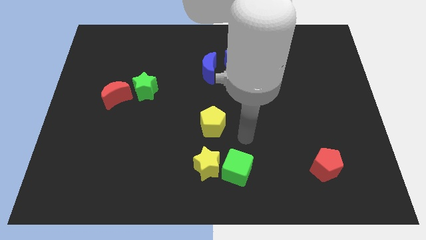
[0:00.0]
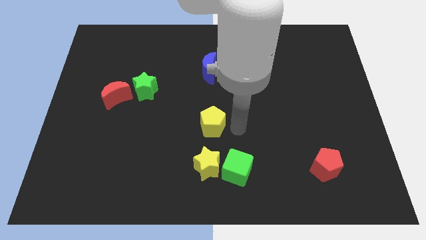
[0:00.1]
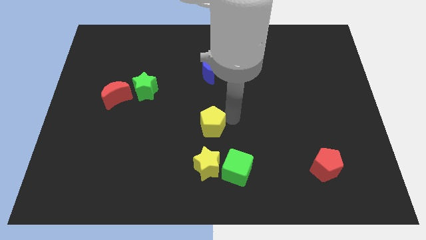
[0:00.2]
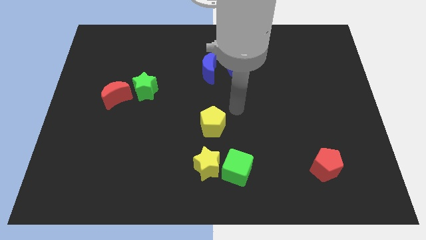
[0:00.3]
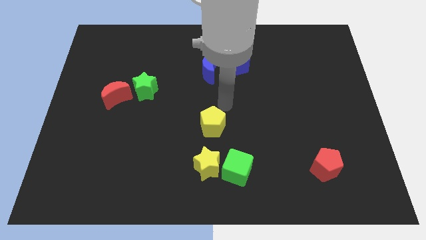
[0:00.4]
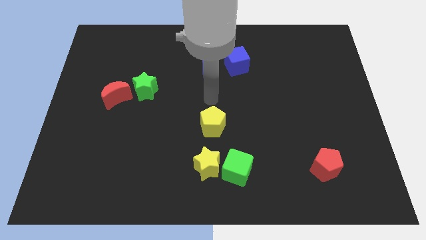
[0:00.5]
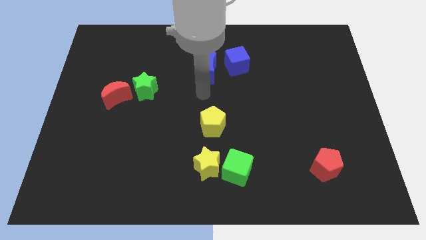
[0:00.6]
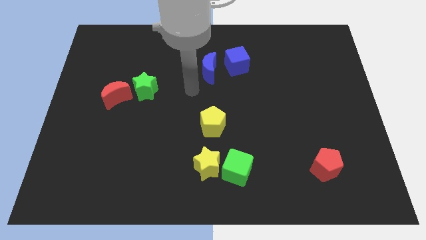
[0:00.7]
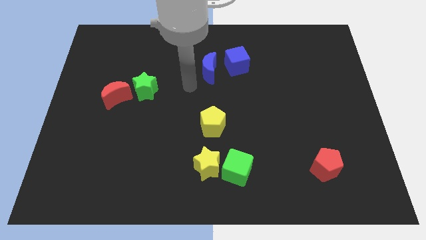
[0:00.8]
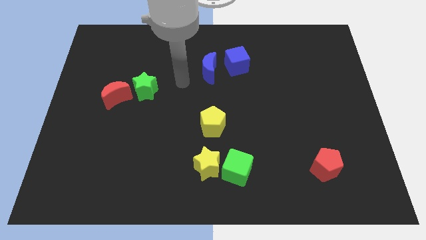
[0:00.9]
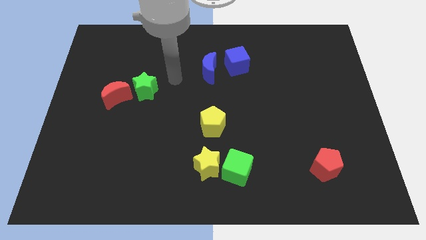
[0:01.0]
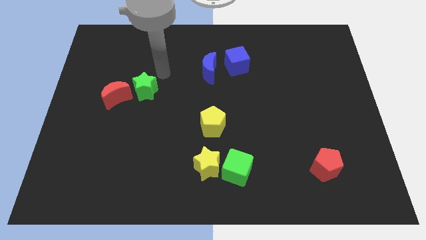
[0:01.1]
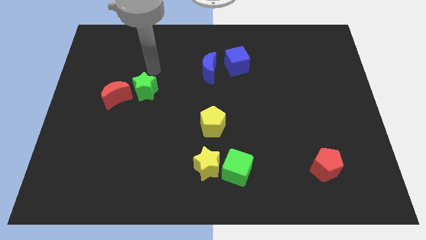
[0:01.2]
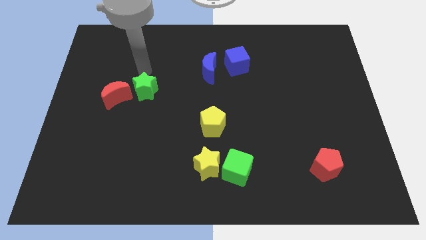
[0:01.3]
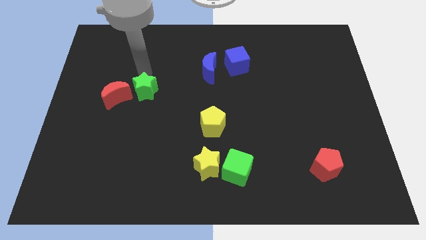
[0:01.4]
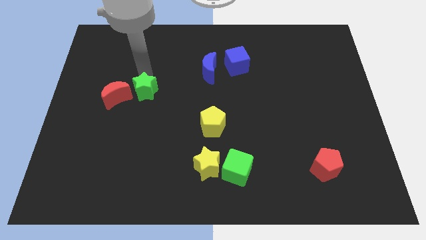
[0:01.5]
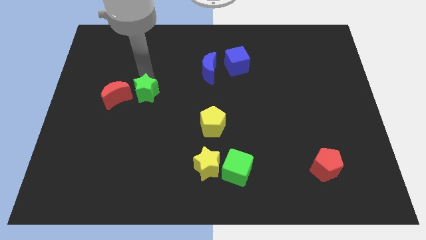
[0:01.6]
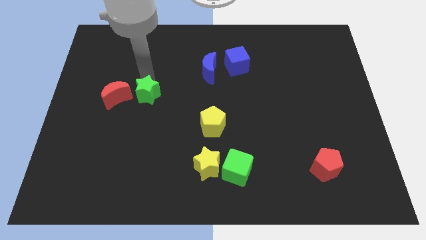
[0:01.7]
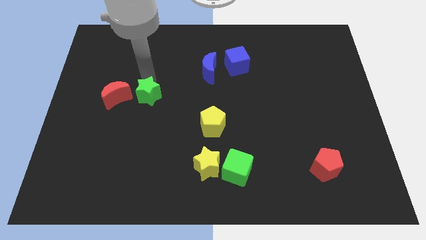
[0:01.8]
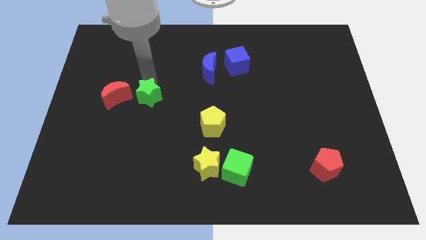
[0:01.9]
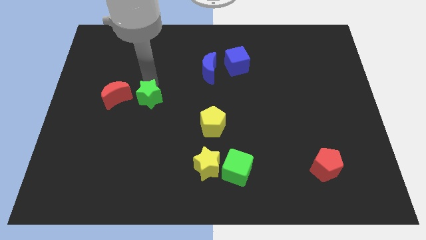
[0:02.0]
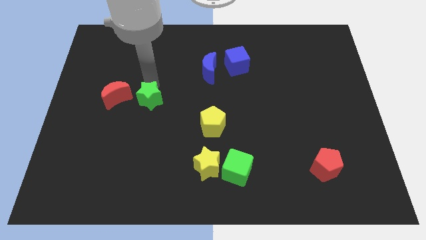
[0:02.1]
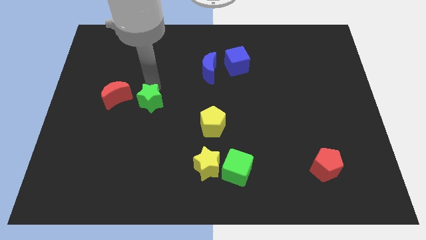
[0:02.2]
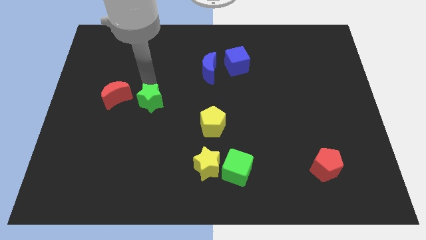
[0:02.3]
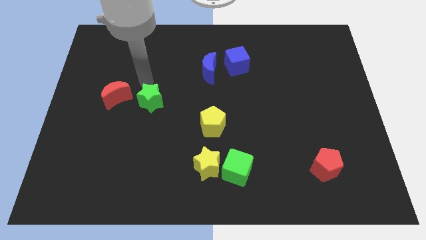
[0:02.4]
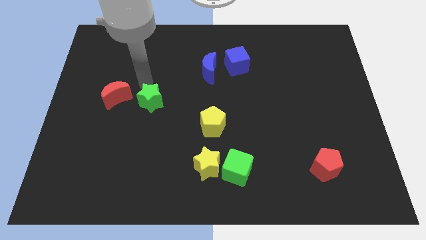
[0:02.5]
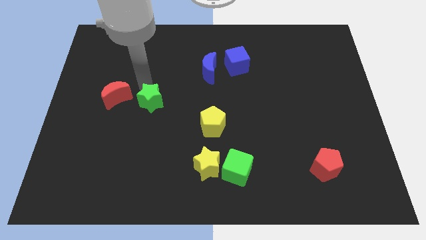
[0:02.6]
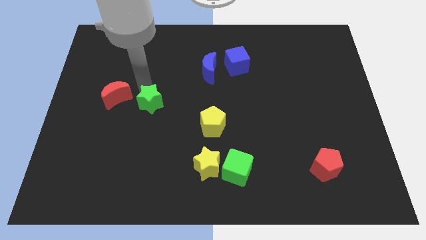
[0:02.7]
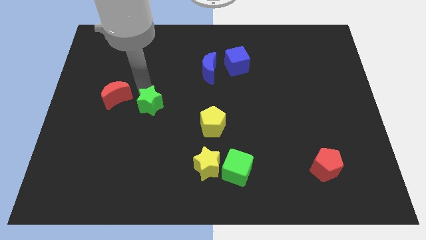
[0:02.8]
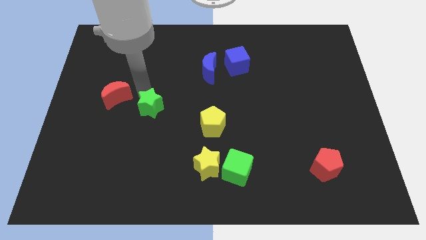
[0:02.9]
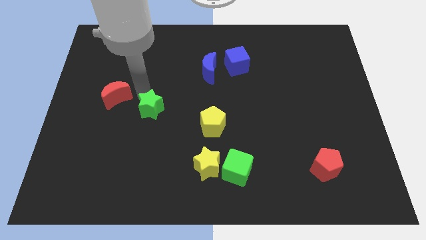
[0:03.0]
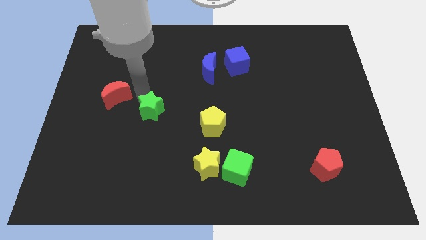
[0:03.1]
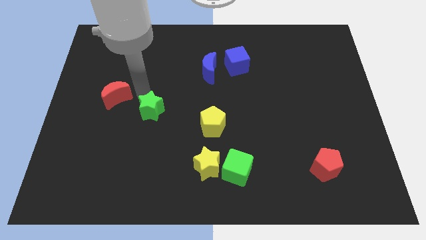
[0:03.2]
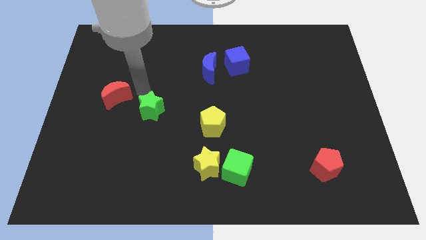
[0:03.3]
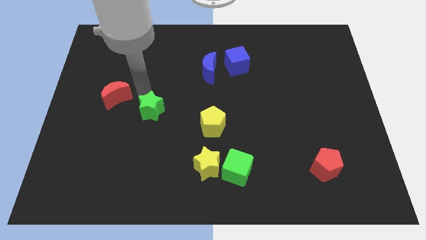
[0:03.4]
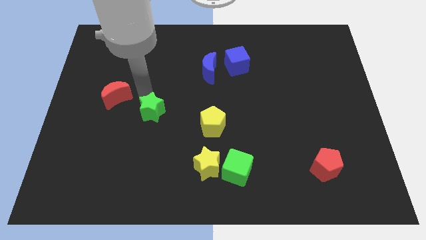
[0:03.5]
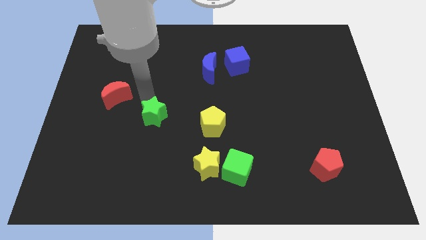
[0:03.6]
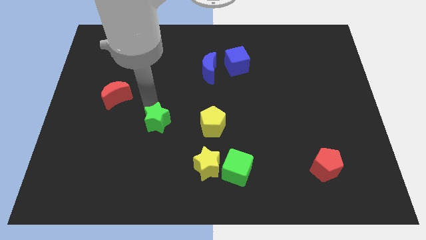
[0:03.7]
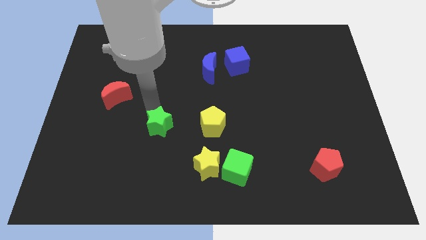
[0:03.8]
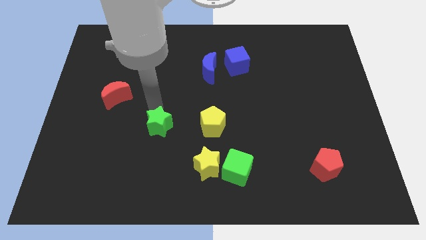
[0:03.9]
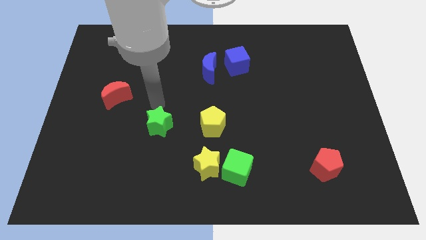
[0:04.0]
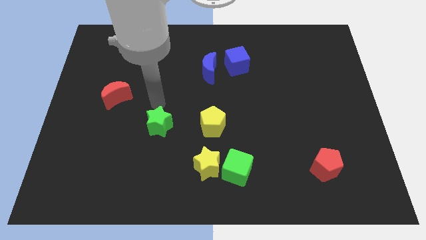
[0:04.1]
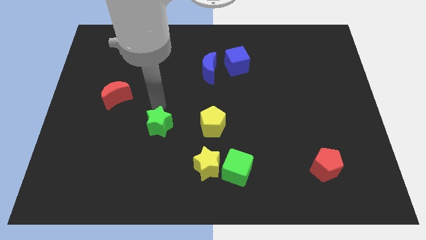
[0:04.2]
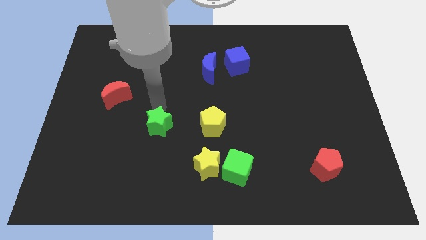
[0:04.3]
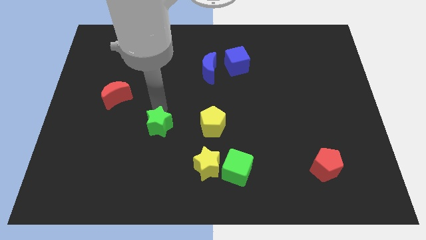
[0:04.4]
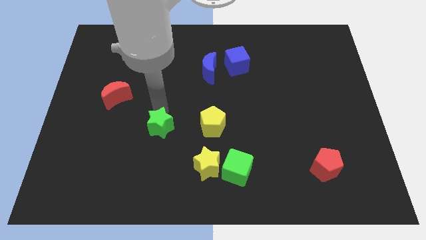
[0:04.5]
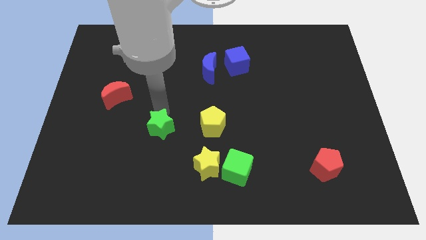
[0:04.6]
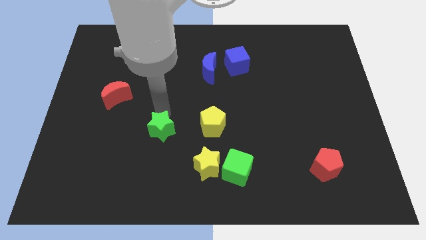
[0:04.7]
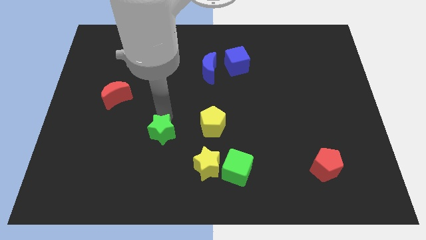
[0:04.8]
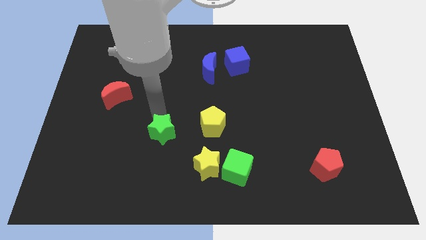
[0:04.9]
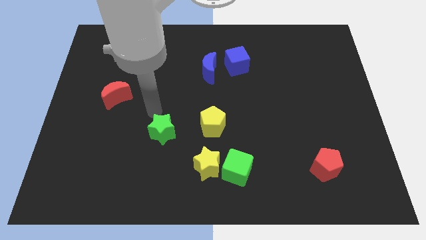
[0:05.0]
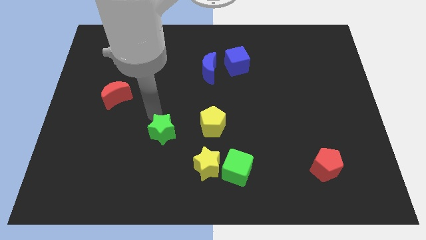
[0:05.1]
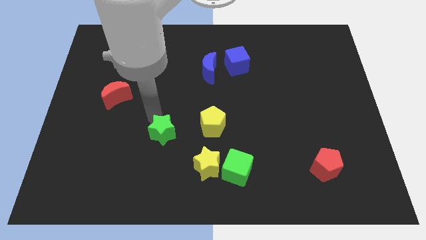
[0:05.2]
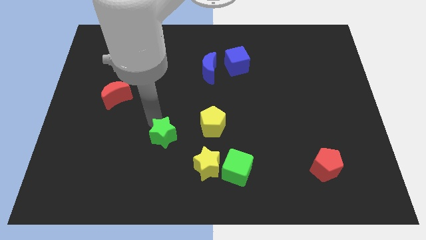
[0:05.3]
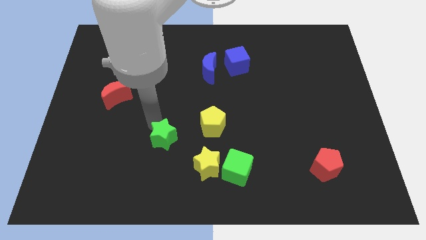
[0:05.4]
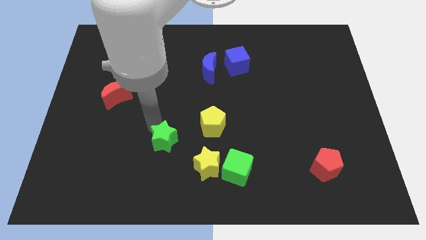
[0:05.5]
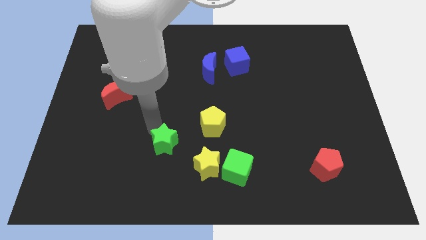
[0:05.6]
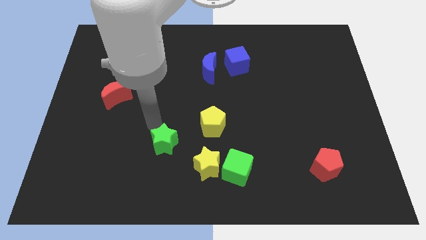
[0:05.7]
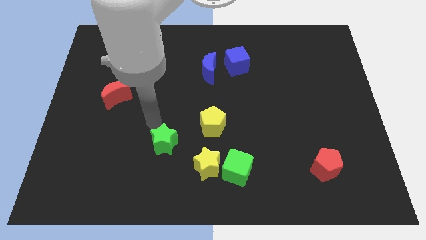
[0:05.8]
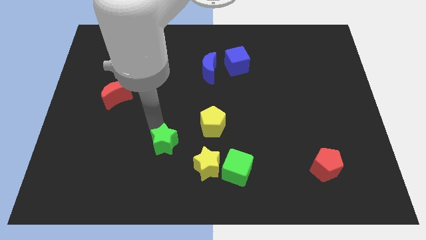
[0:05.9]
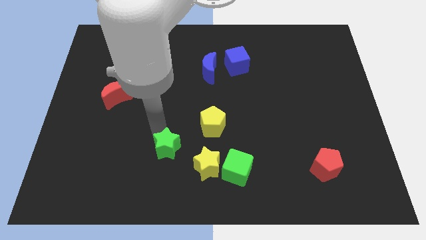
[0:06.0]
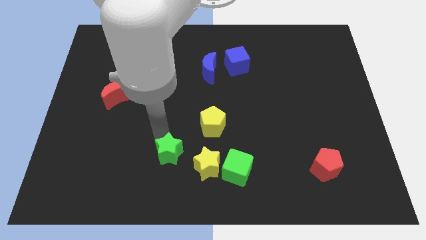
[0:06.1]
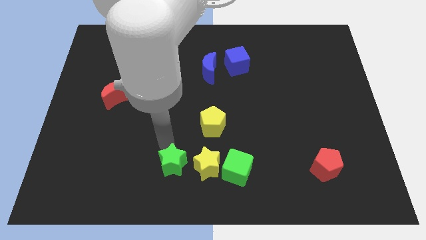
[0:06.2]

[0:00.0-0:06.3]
put the green star to the bottom
